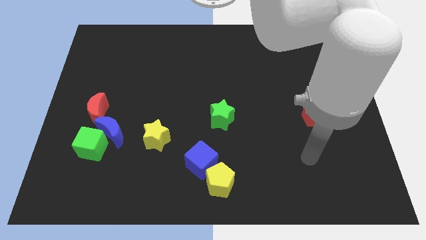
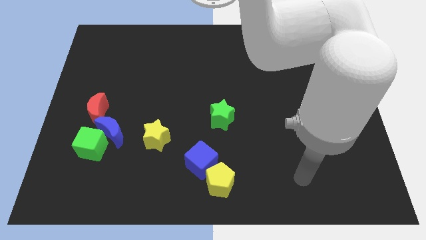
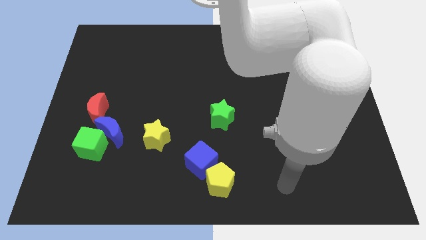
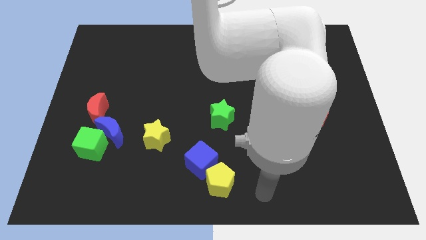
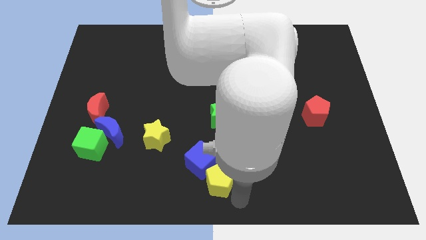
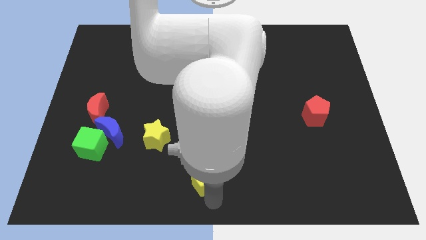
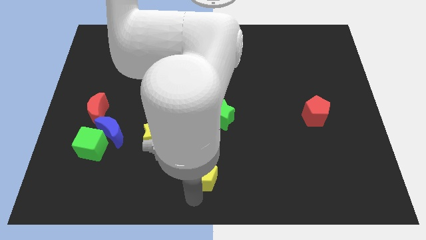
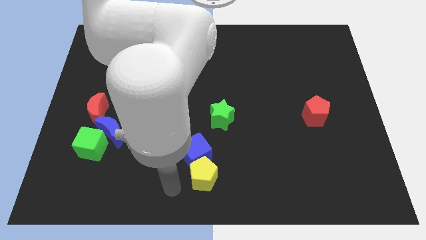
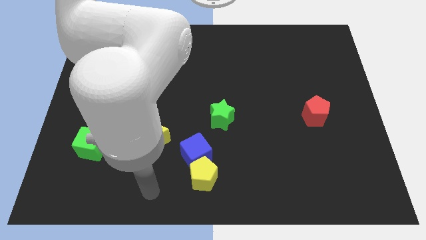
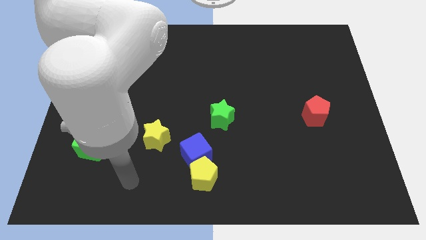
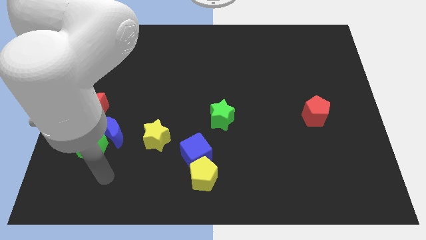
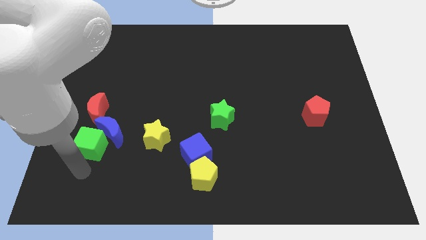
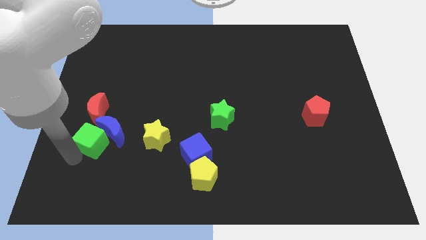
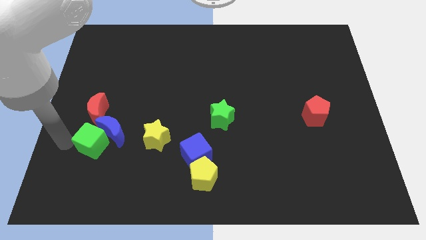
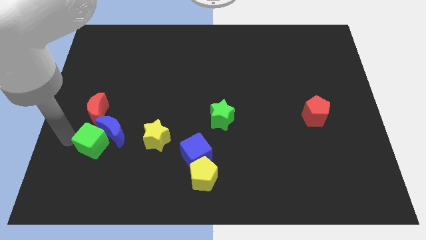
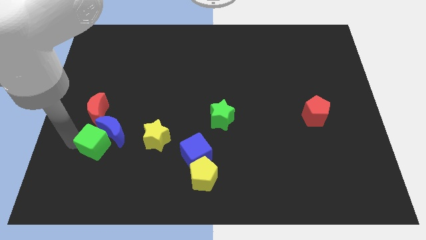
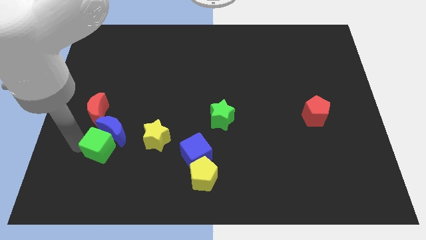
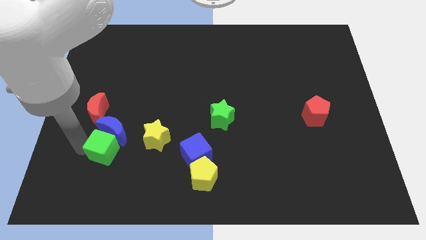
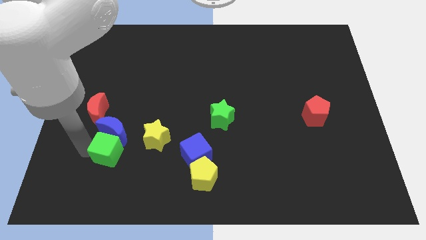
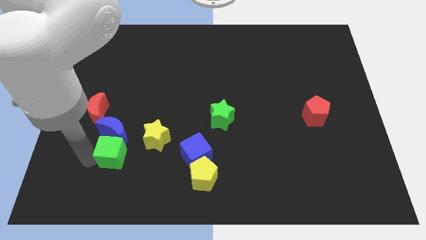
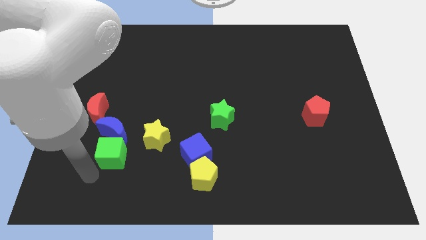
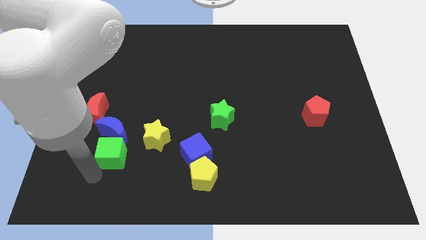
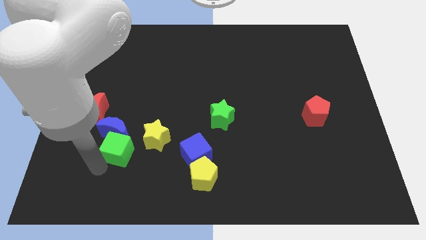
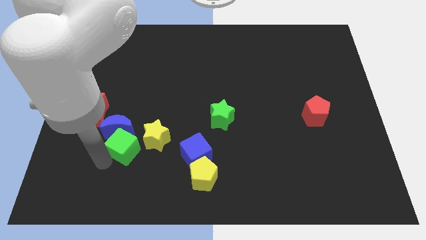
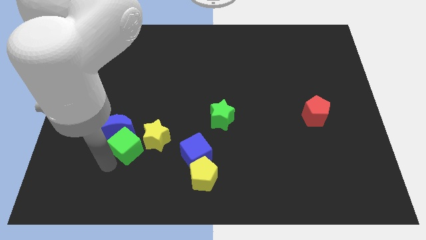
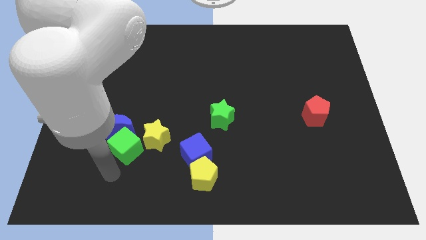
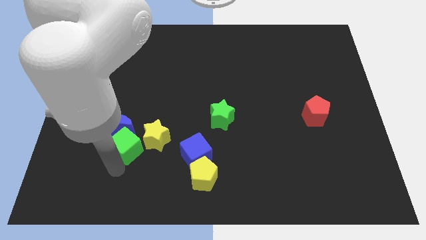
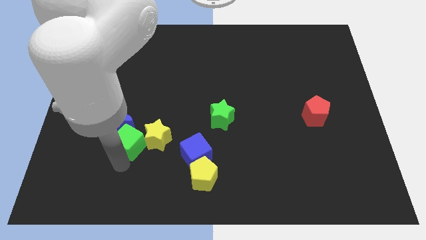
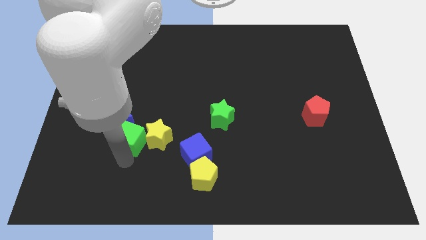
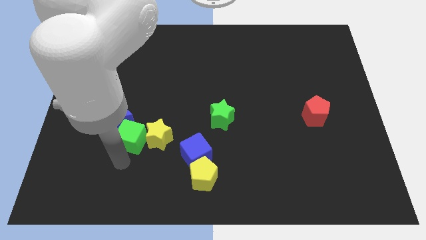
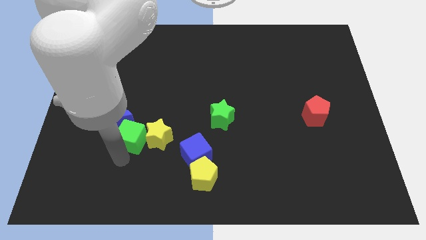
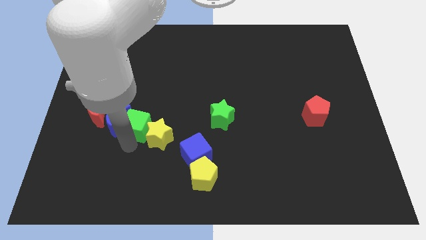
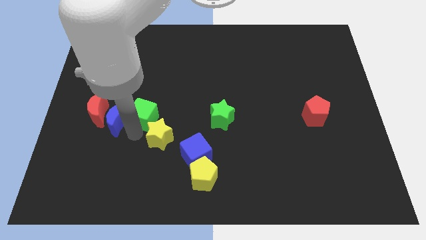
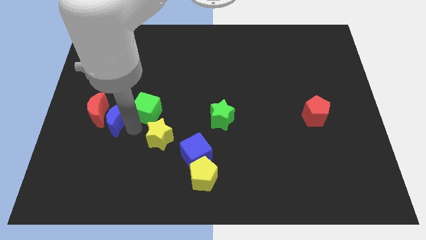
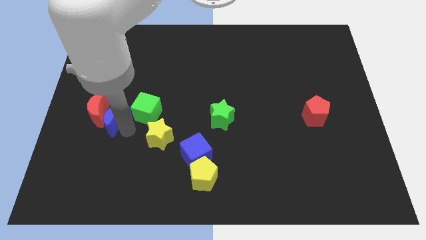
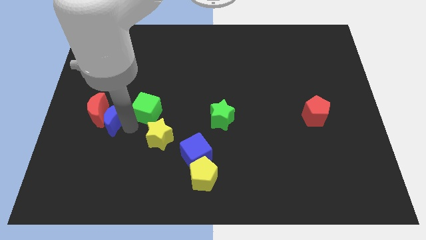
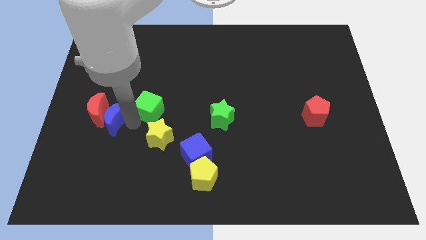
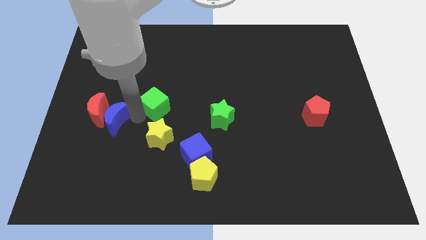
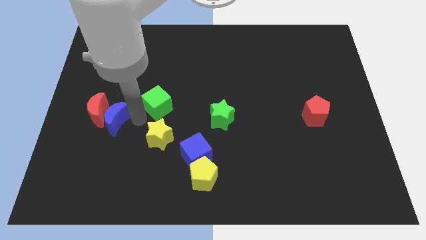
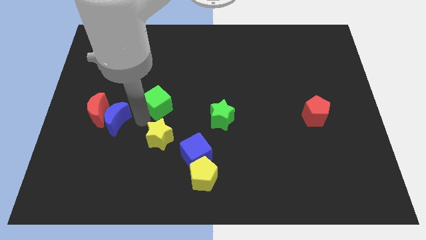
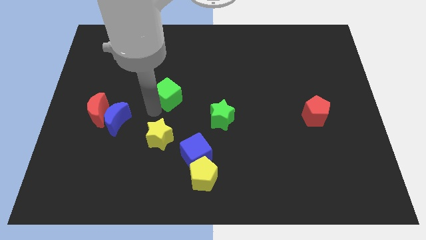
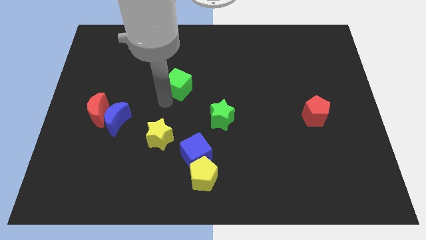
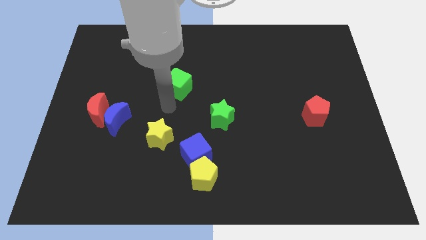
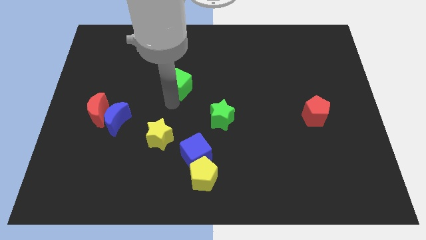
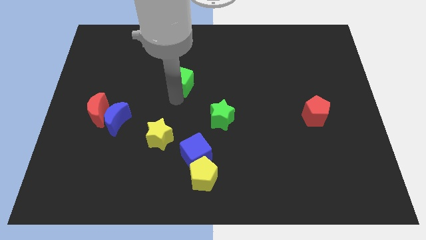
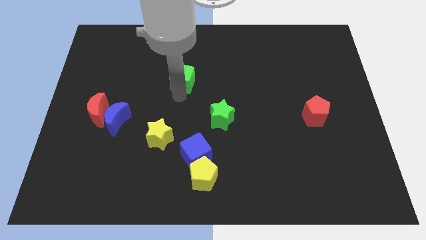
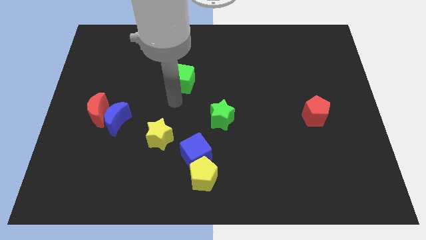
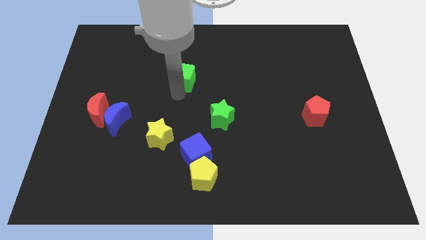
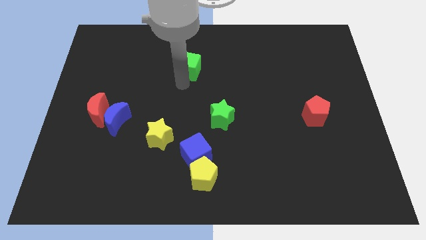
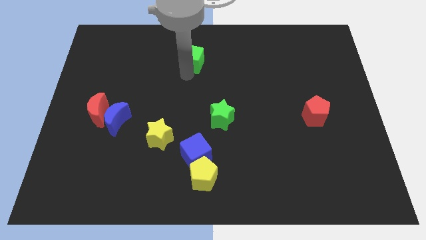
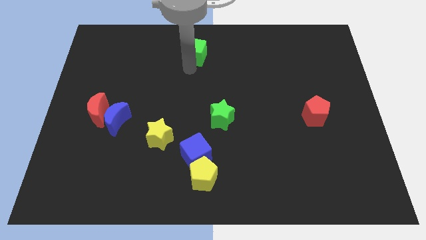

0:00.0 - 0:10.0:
slide the green cube to the top side

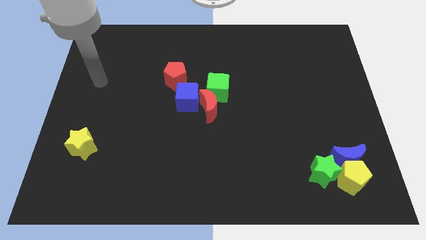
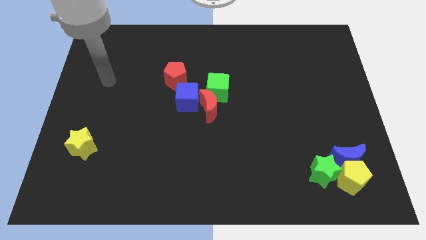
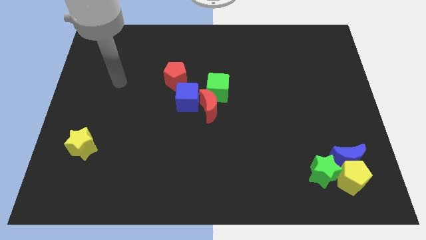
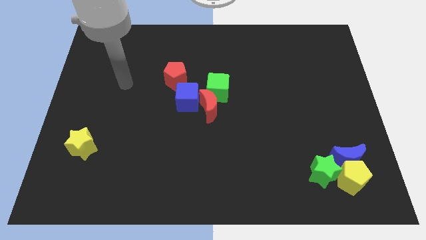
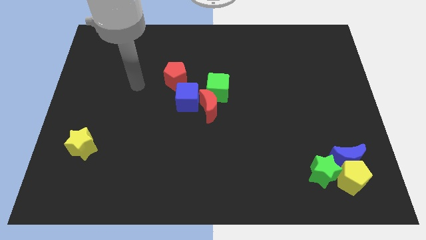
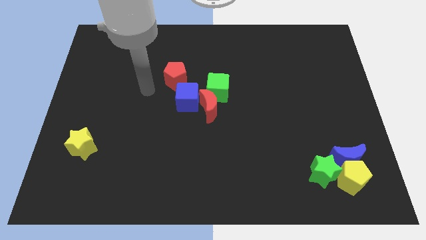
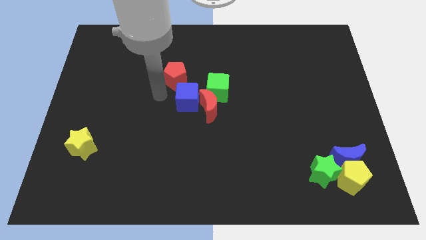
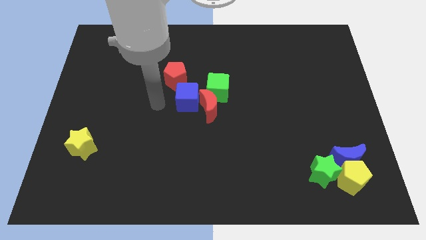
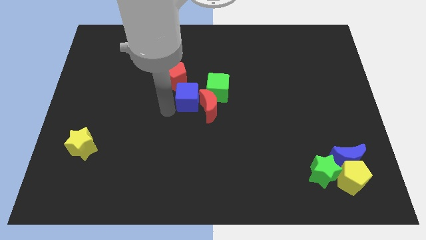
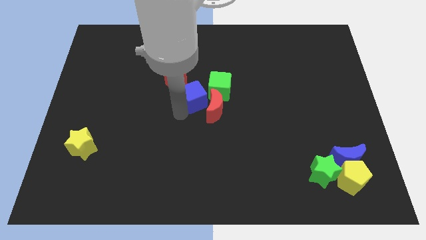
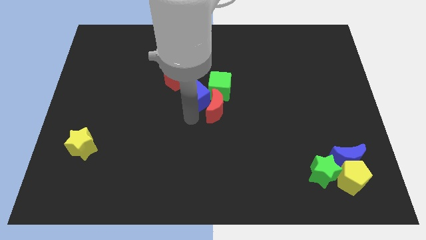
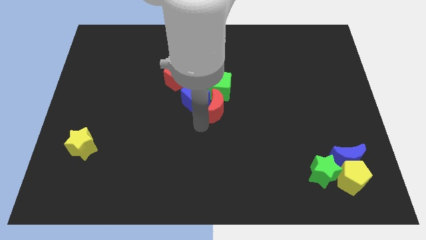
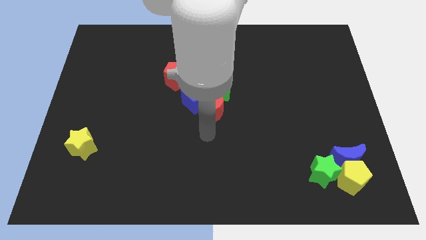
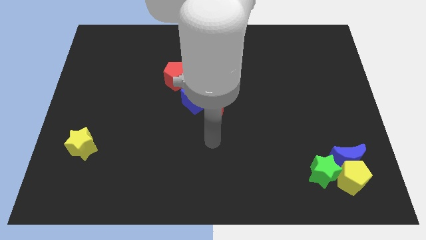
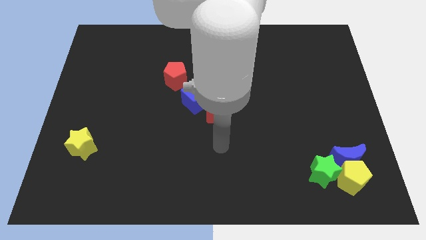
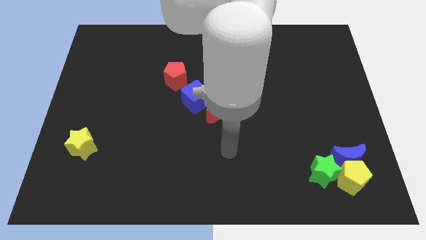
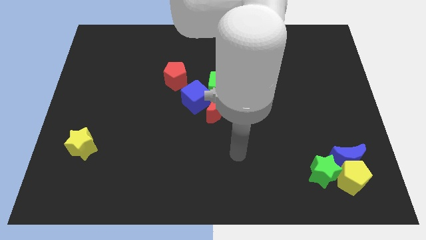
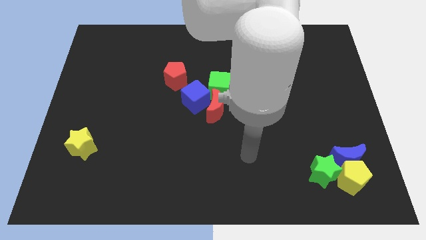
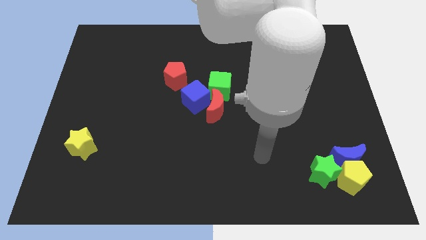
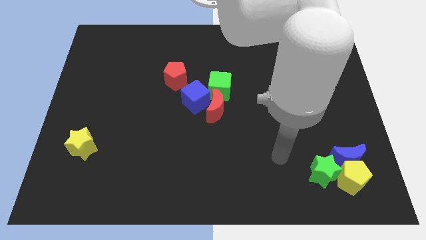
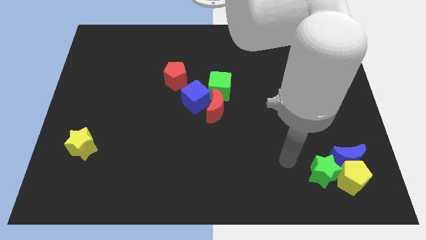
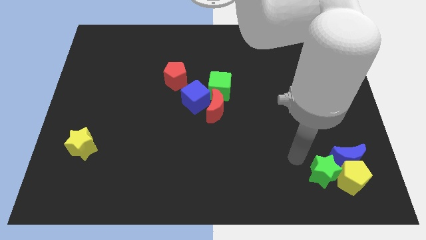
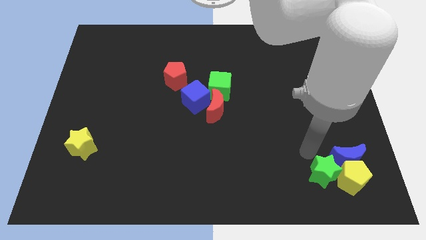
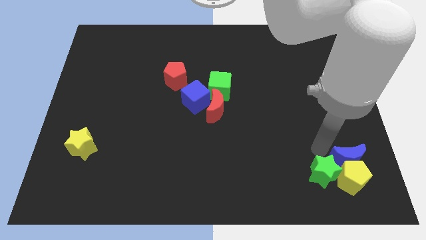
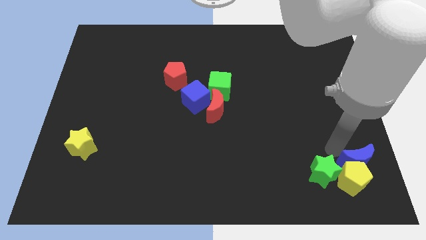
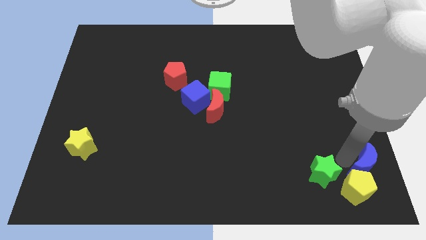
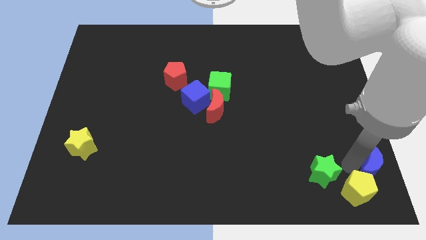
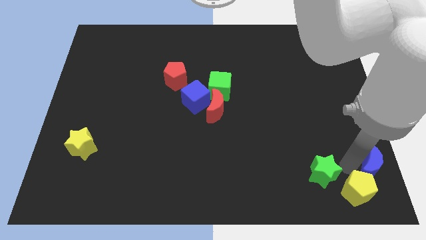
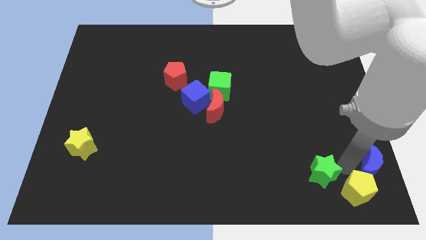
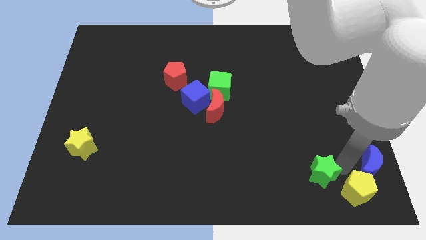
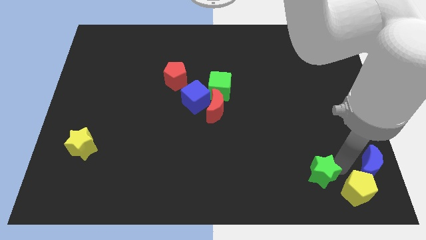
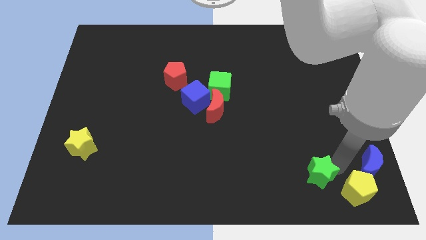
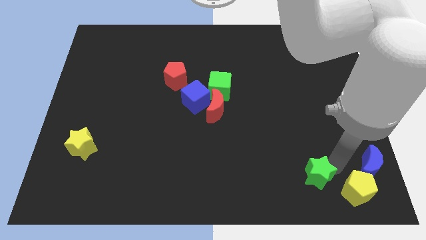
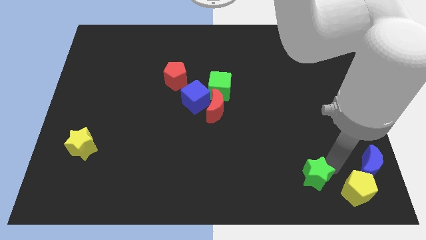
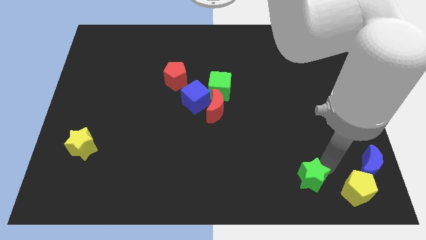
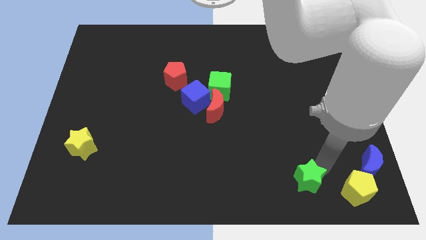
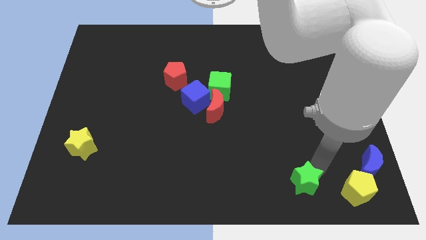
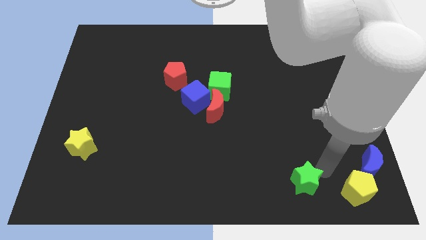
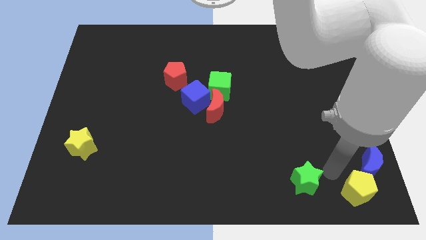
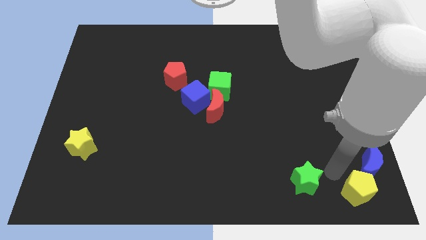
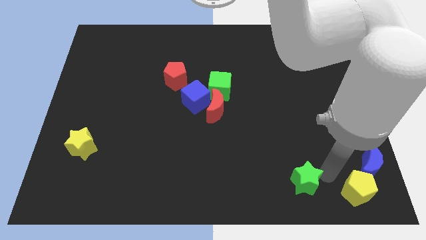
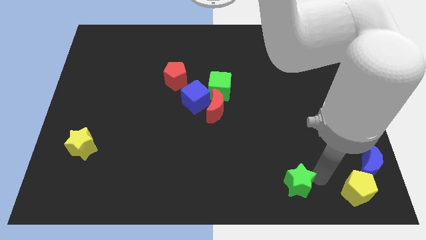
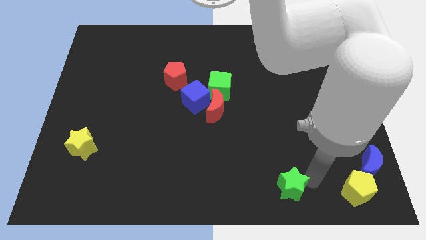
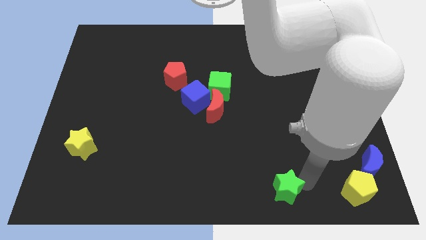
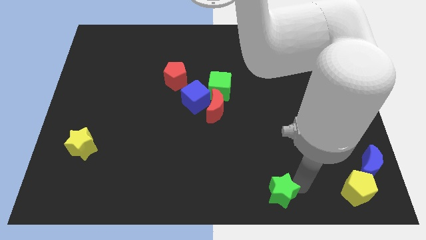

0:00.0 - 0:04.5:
move the green star to the bottom side
